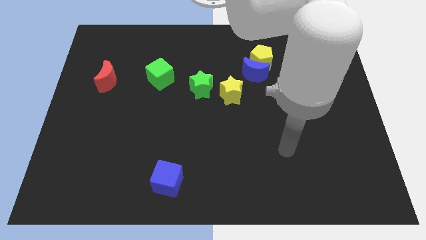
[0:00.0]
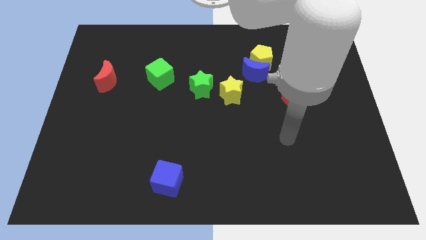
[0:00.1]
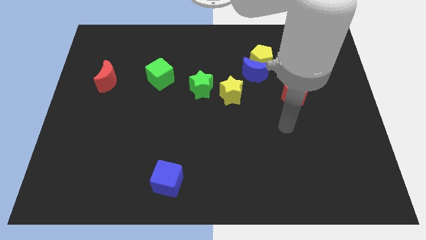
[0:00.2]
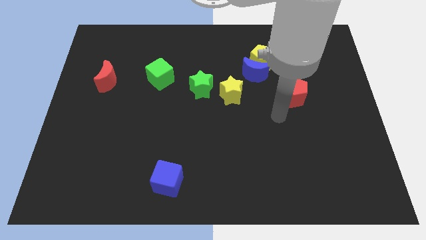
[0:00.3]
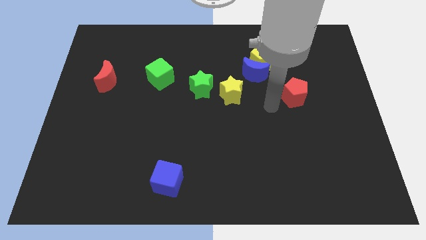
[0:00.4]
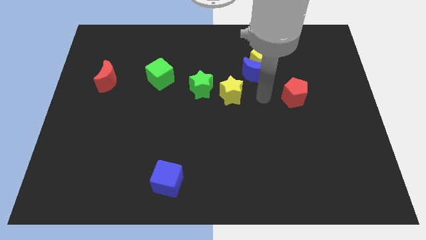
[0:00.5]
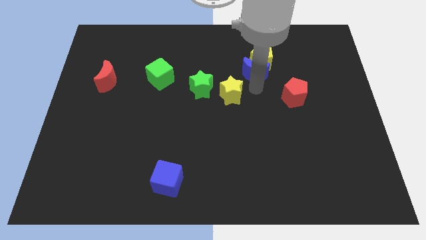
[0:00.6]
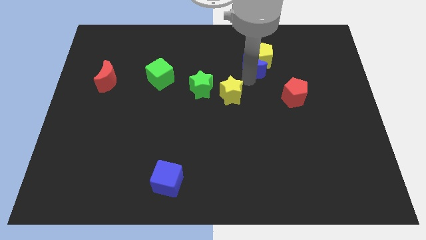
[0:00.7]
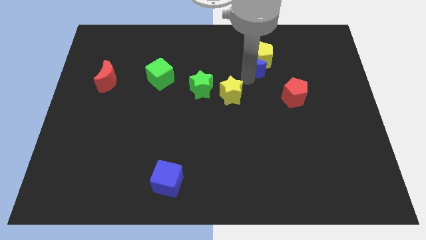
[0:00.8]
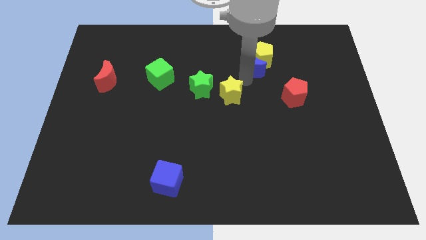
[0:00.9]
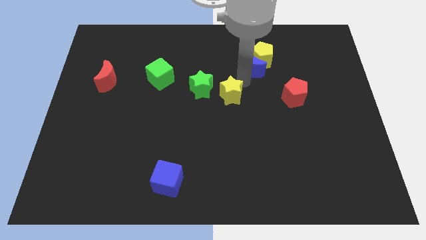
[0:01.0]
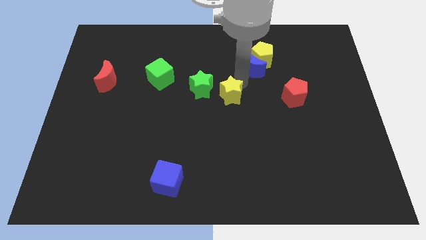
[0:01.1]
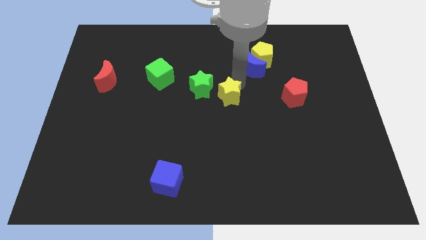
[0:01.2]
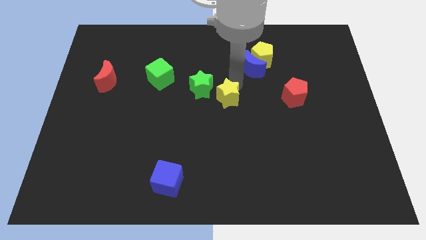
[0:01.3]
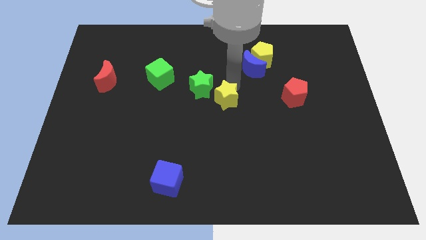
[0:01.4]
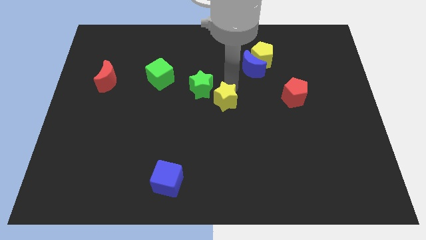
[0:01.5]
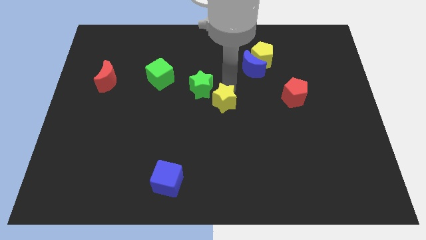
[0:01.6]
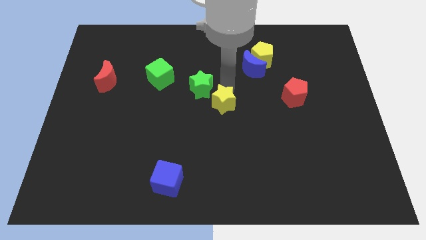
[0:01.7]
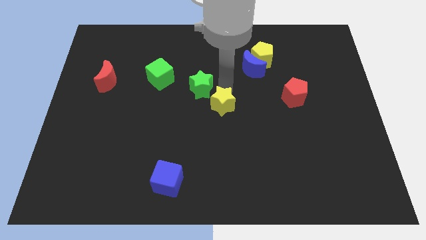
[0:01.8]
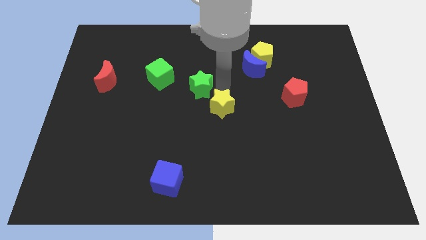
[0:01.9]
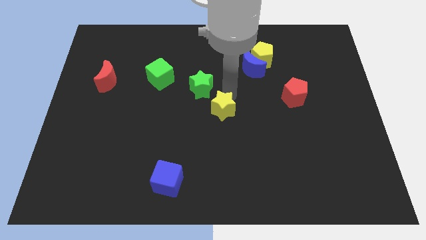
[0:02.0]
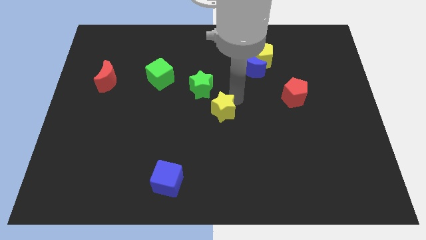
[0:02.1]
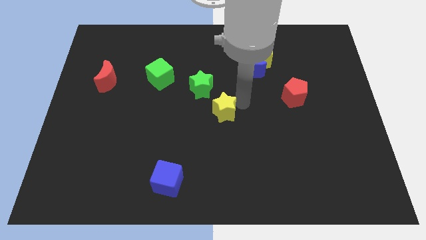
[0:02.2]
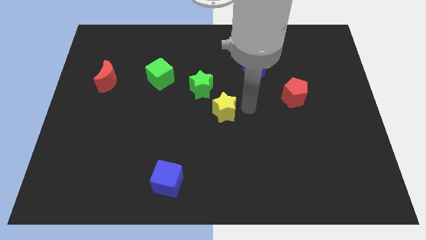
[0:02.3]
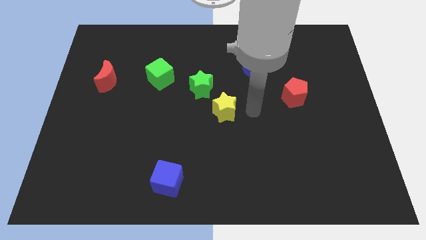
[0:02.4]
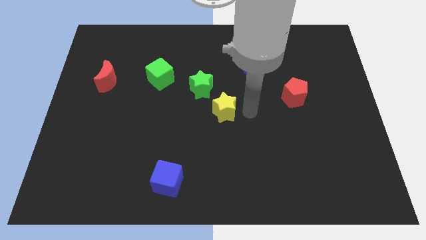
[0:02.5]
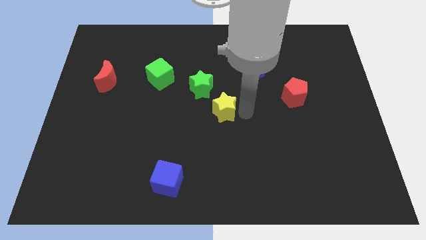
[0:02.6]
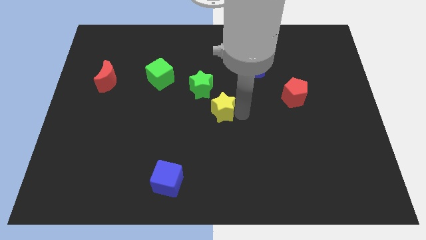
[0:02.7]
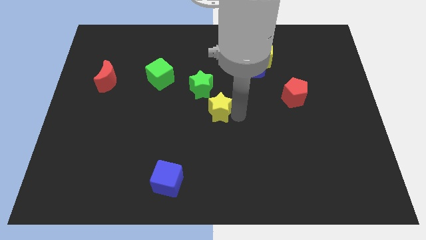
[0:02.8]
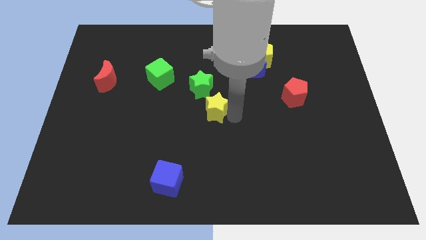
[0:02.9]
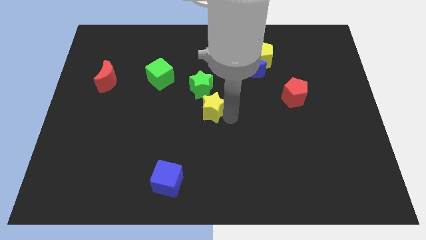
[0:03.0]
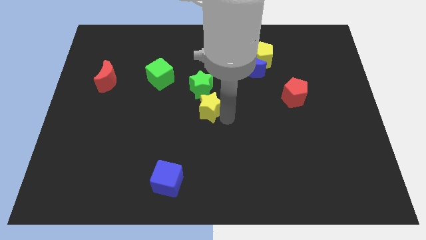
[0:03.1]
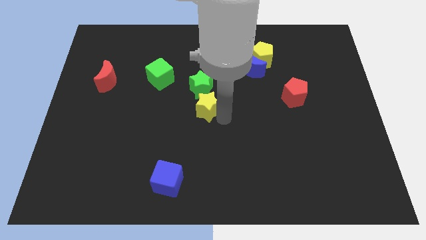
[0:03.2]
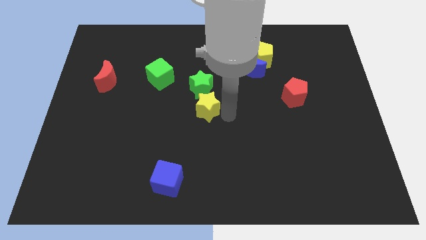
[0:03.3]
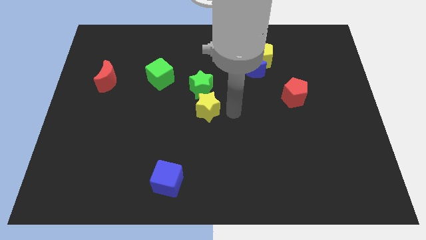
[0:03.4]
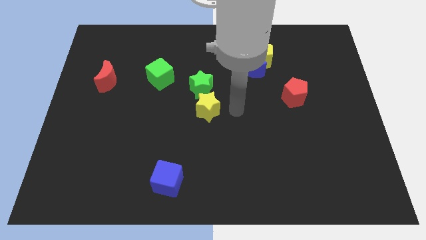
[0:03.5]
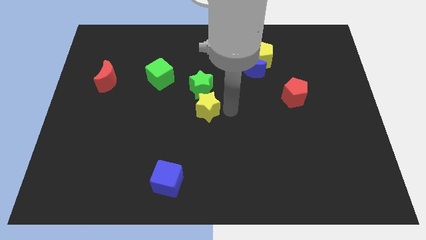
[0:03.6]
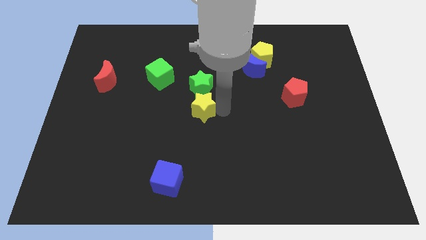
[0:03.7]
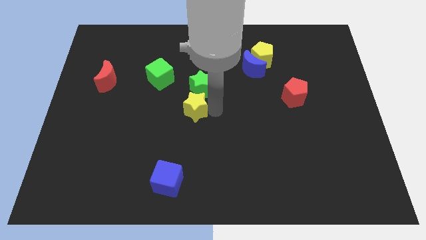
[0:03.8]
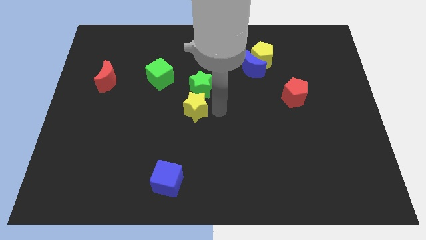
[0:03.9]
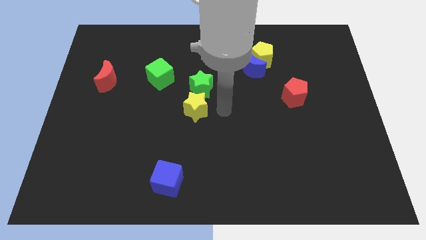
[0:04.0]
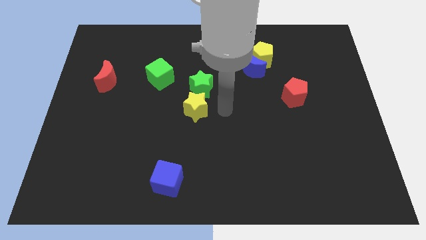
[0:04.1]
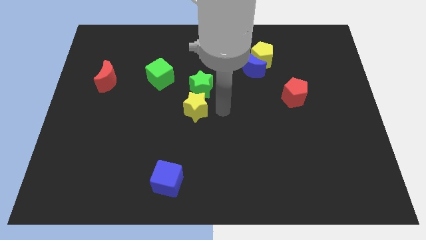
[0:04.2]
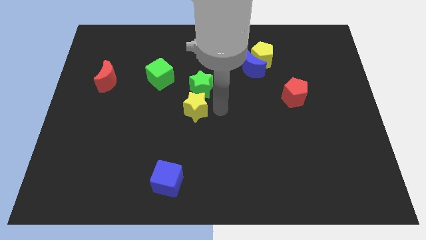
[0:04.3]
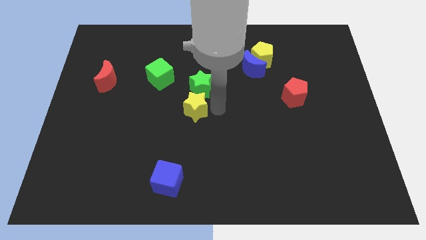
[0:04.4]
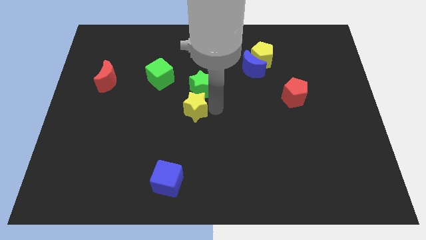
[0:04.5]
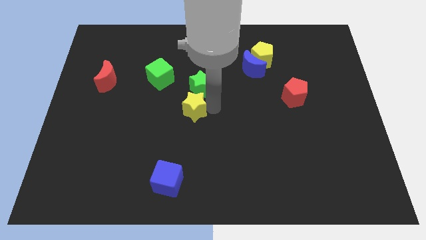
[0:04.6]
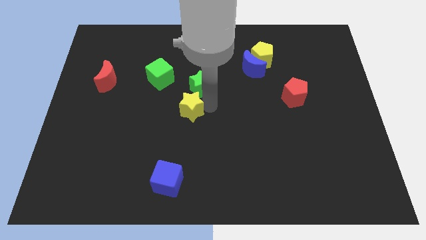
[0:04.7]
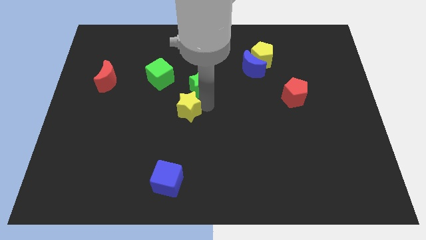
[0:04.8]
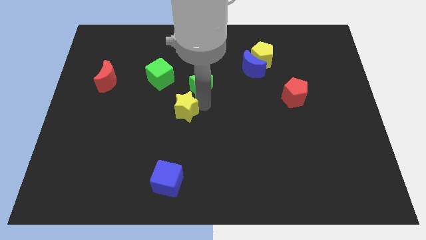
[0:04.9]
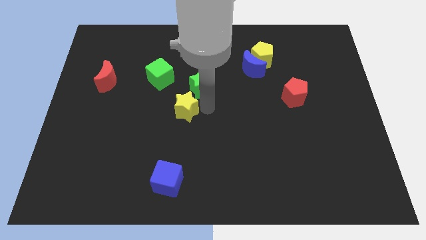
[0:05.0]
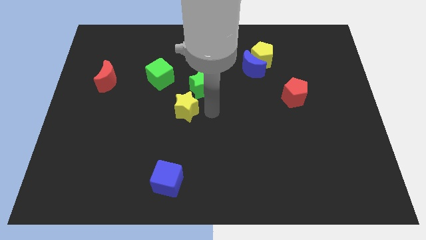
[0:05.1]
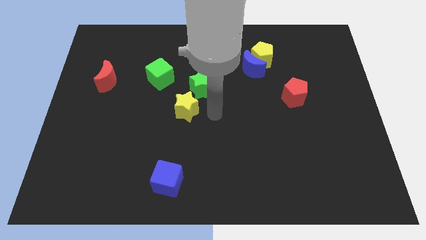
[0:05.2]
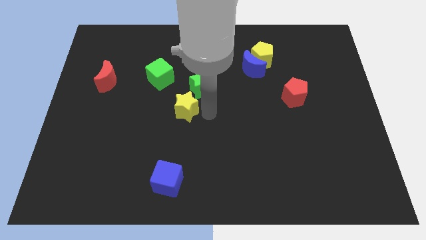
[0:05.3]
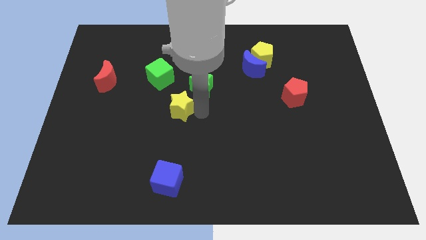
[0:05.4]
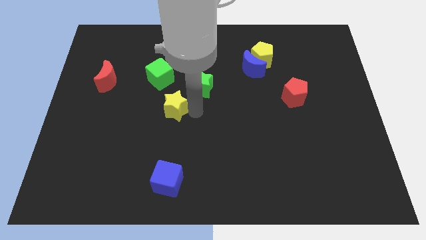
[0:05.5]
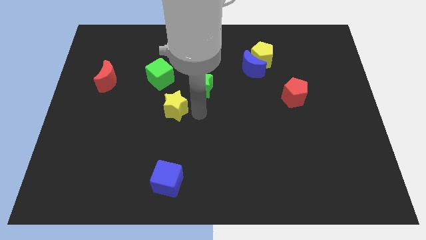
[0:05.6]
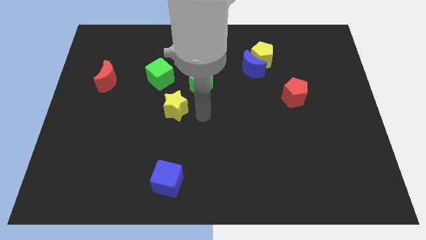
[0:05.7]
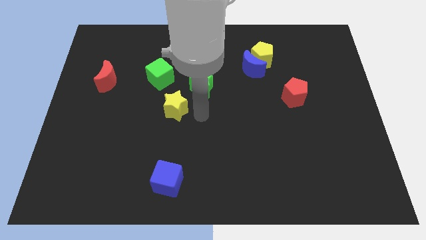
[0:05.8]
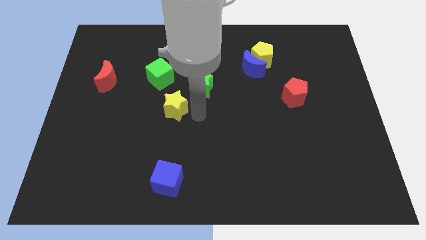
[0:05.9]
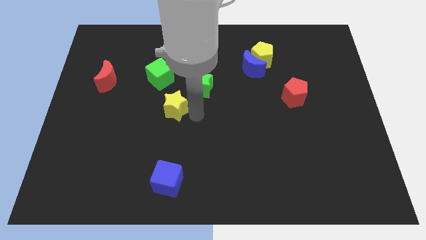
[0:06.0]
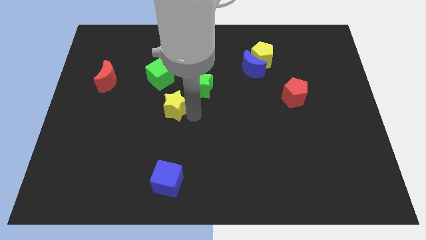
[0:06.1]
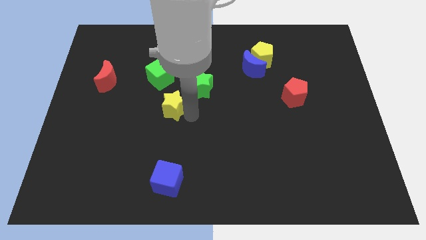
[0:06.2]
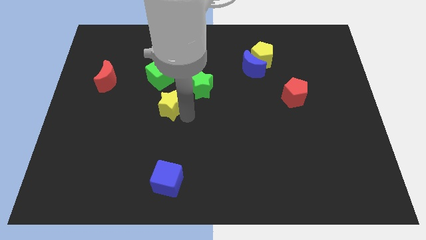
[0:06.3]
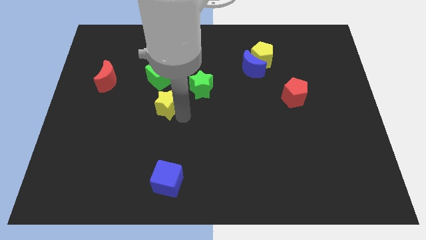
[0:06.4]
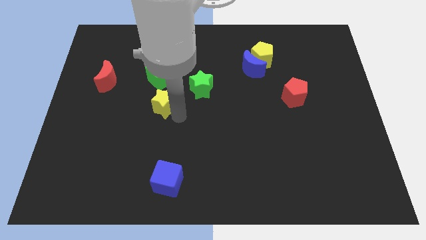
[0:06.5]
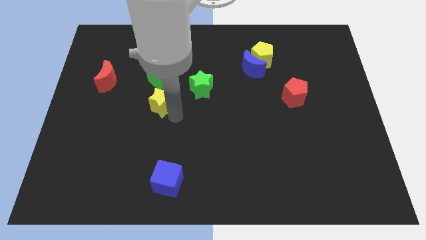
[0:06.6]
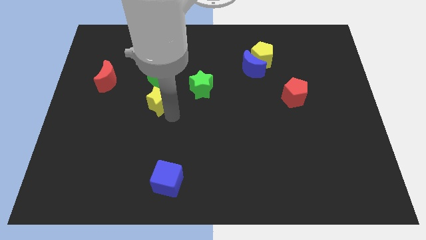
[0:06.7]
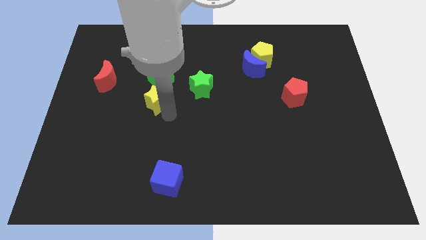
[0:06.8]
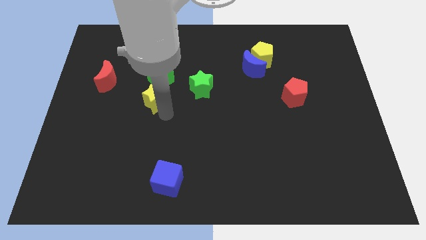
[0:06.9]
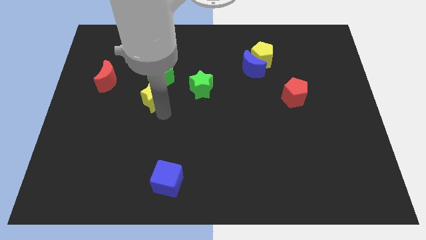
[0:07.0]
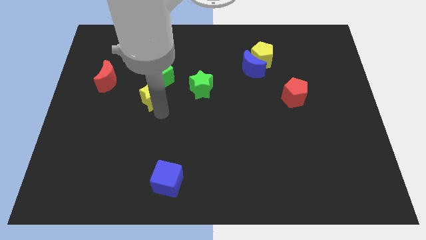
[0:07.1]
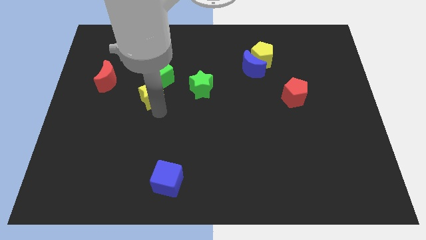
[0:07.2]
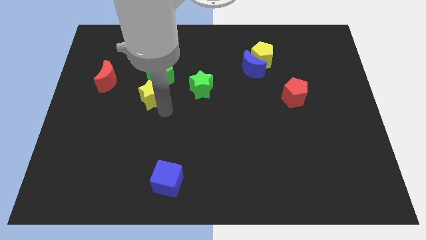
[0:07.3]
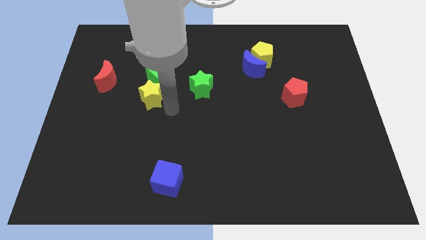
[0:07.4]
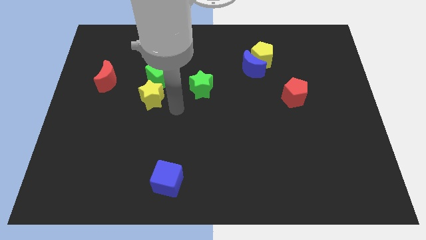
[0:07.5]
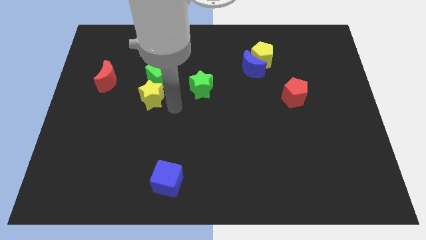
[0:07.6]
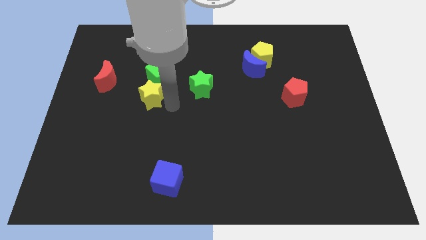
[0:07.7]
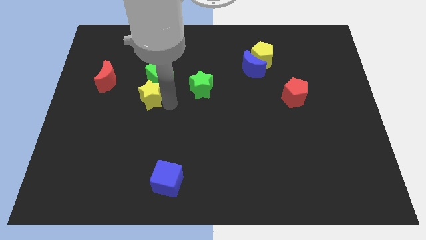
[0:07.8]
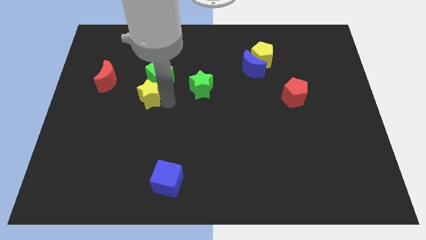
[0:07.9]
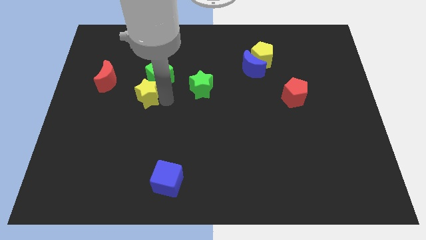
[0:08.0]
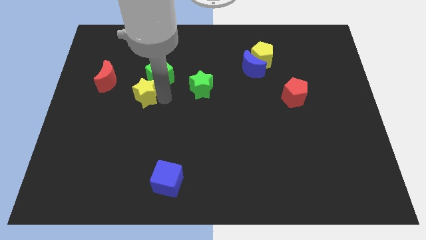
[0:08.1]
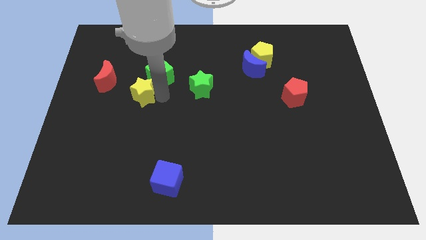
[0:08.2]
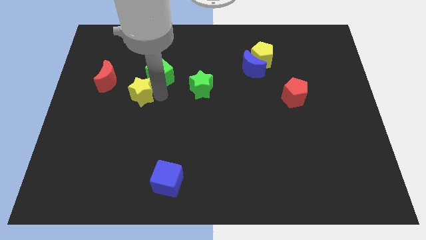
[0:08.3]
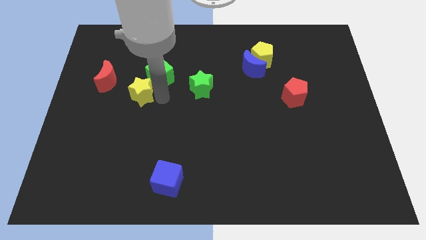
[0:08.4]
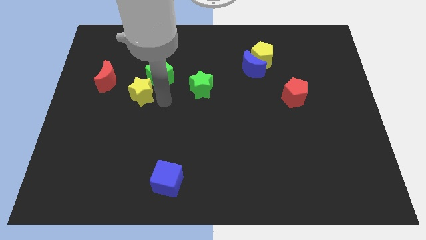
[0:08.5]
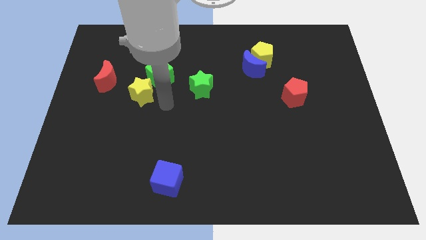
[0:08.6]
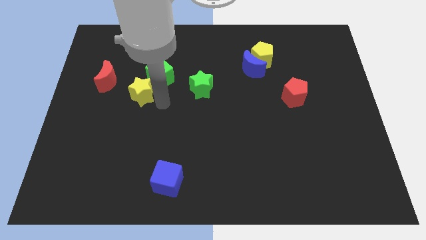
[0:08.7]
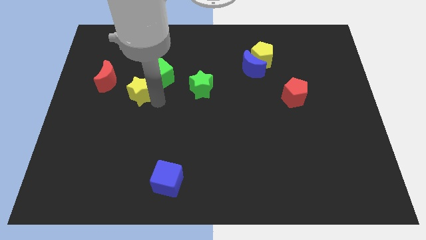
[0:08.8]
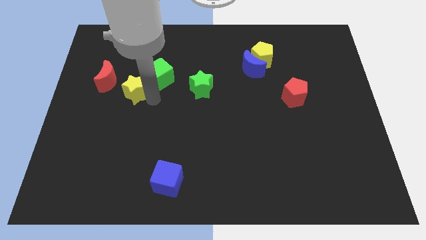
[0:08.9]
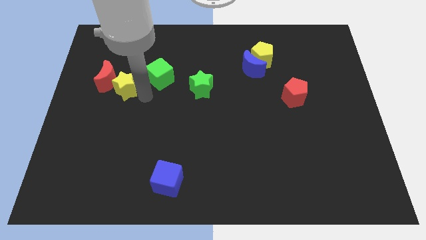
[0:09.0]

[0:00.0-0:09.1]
move the yellow star close to the red moon
